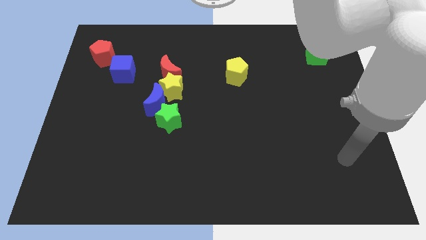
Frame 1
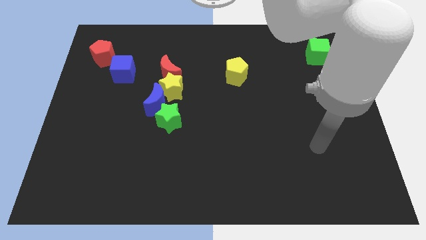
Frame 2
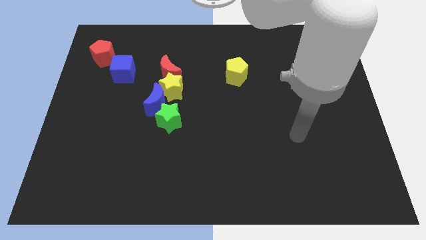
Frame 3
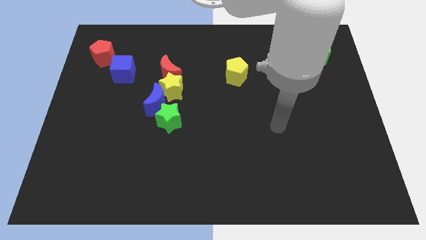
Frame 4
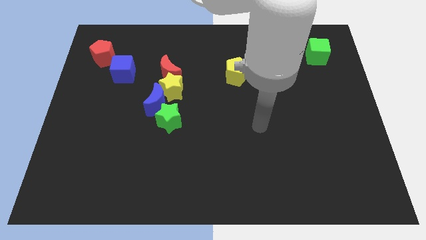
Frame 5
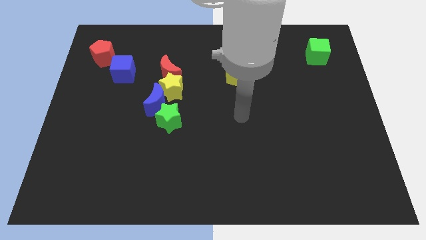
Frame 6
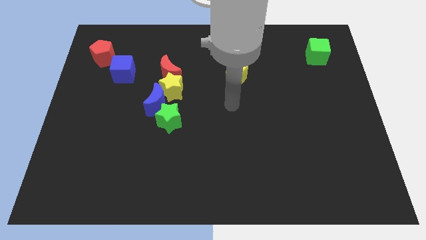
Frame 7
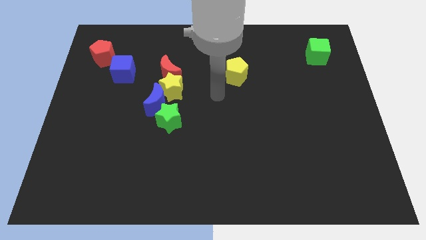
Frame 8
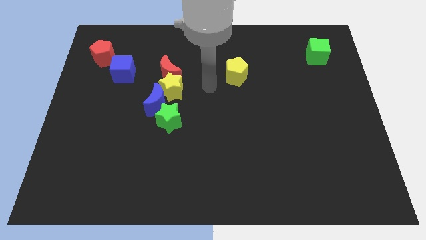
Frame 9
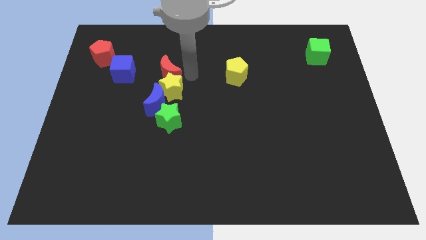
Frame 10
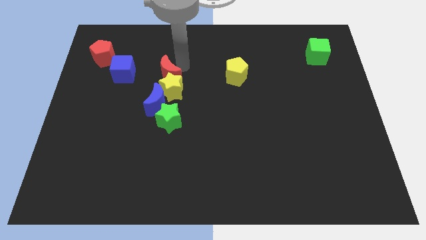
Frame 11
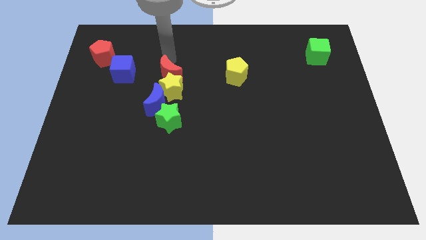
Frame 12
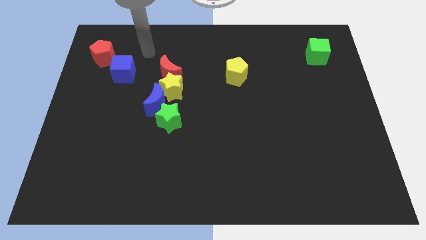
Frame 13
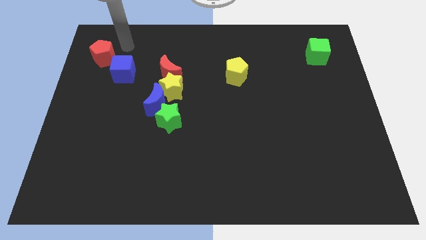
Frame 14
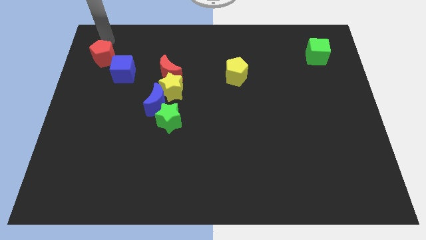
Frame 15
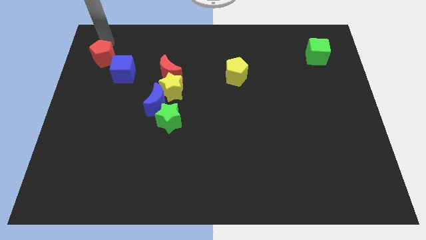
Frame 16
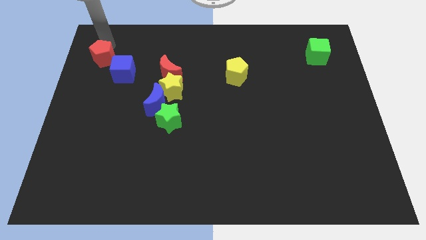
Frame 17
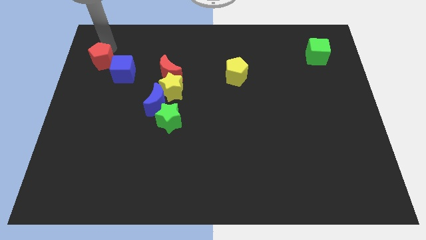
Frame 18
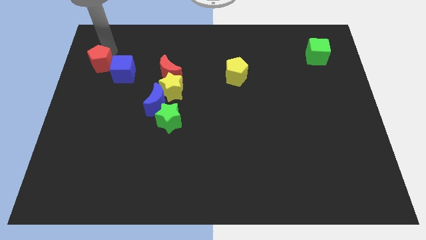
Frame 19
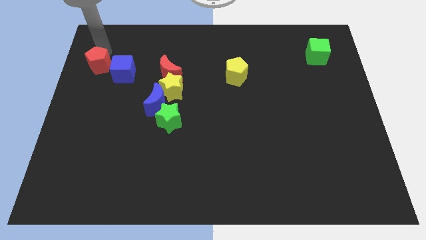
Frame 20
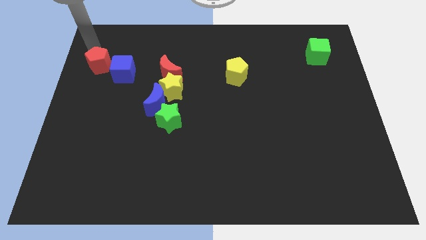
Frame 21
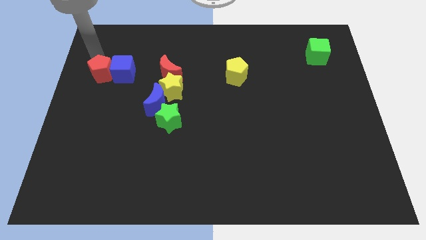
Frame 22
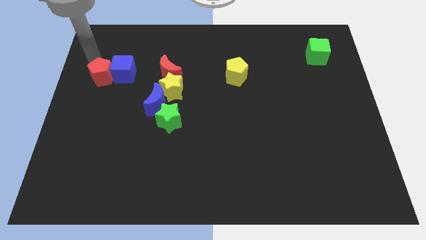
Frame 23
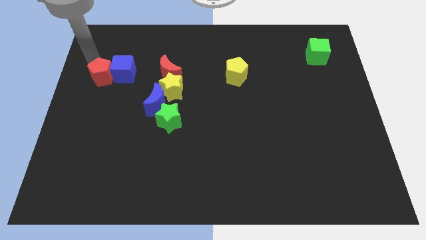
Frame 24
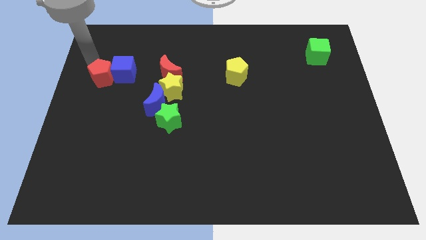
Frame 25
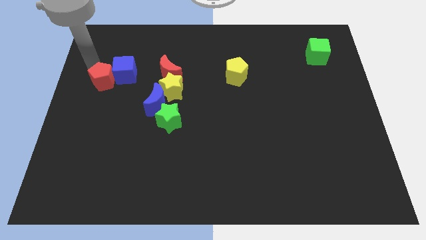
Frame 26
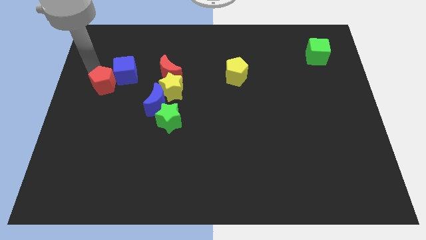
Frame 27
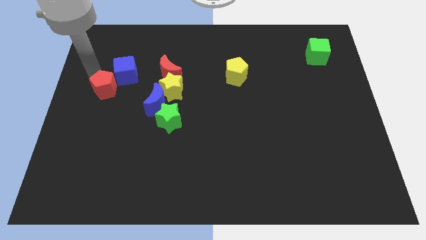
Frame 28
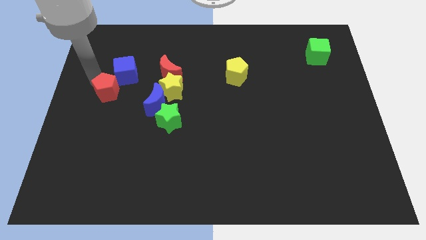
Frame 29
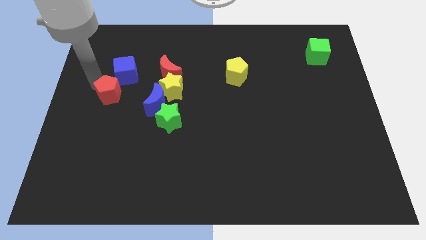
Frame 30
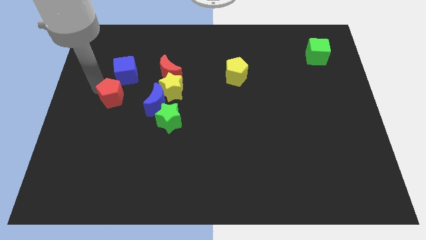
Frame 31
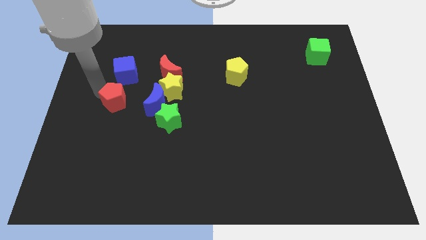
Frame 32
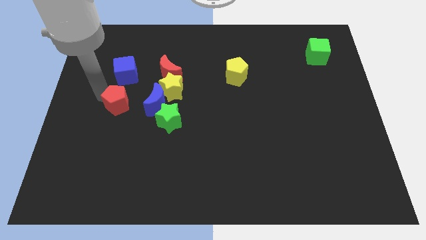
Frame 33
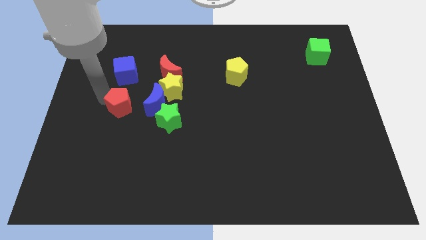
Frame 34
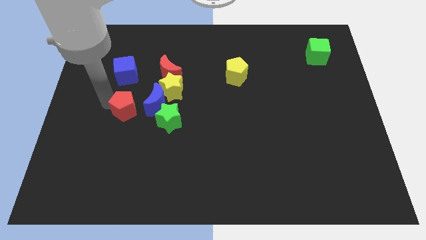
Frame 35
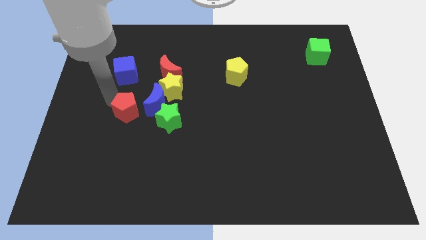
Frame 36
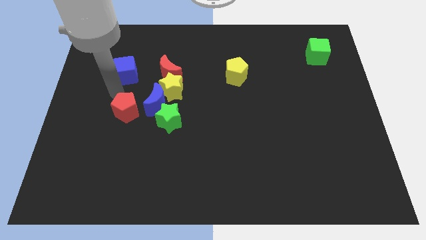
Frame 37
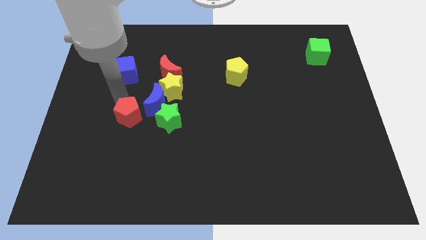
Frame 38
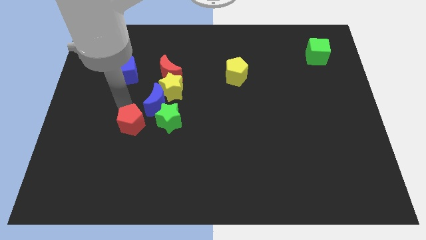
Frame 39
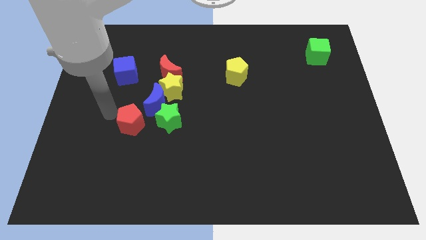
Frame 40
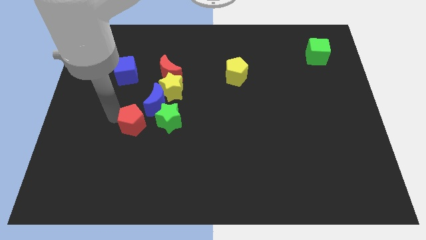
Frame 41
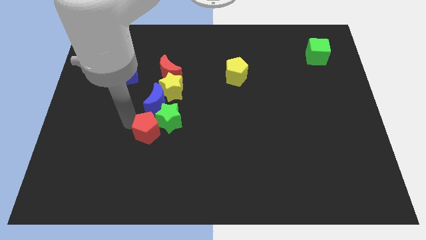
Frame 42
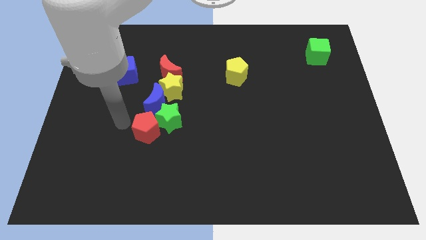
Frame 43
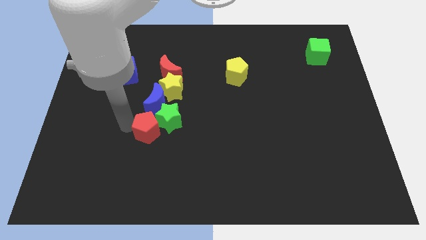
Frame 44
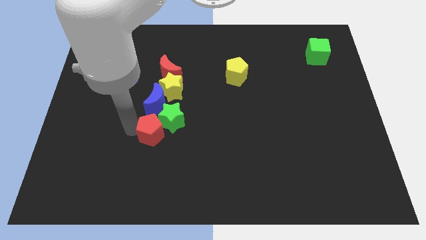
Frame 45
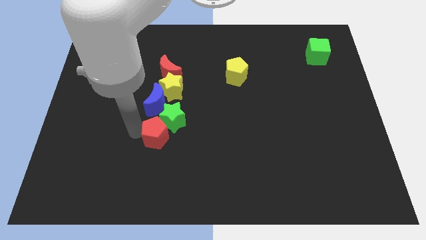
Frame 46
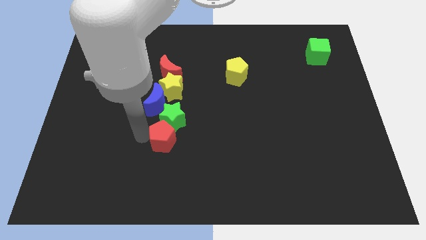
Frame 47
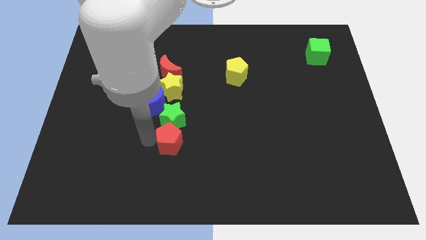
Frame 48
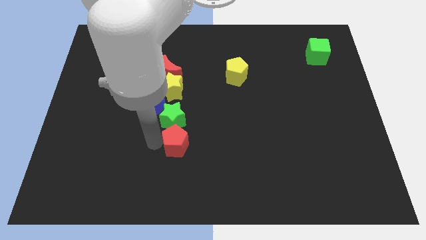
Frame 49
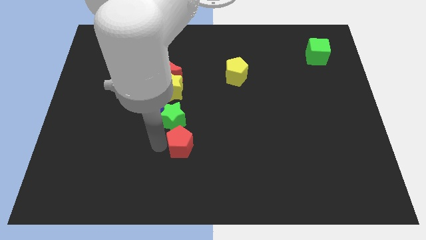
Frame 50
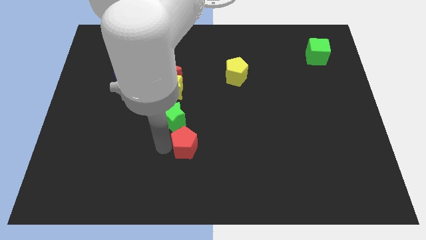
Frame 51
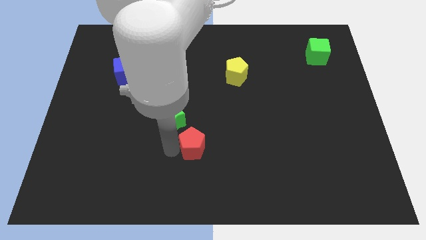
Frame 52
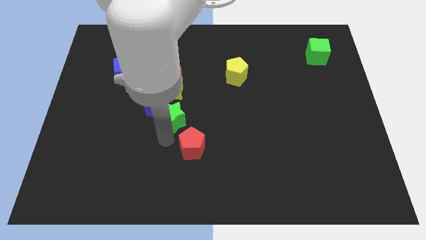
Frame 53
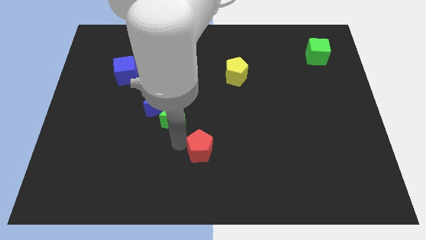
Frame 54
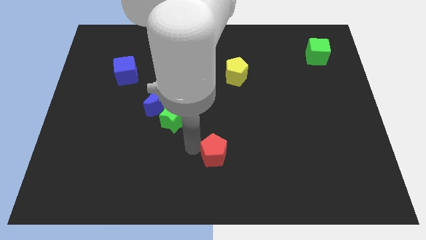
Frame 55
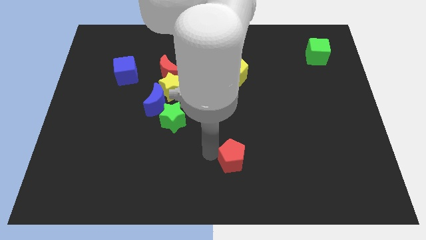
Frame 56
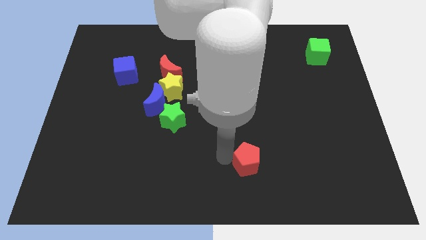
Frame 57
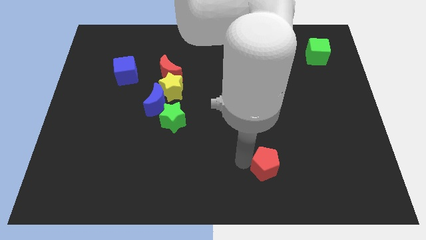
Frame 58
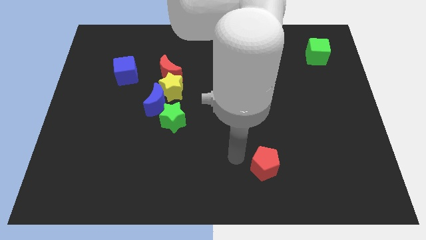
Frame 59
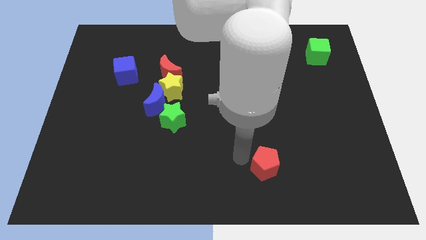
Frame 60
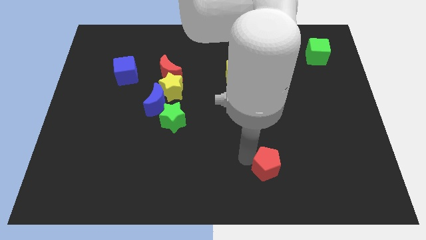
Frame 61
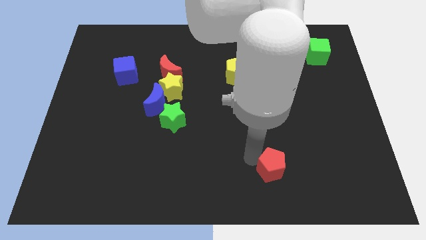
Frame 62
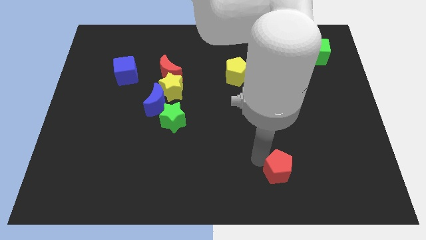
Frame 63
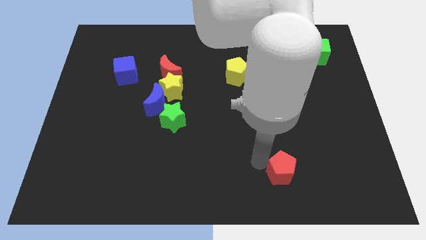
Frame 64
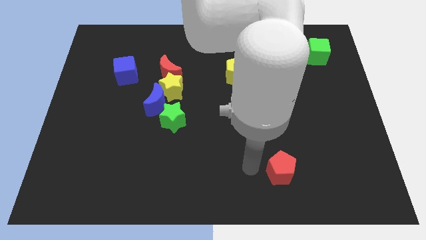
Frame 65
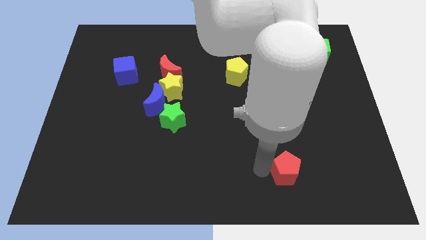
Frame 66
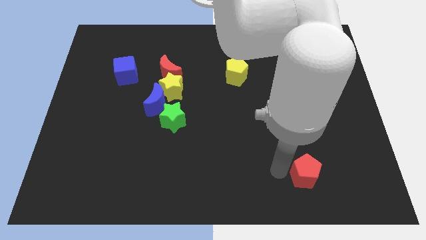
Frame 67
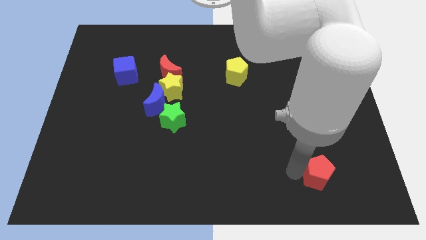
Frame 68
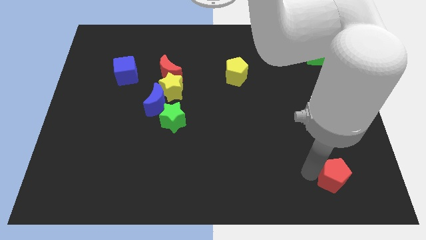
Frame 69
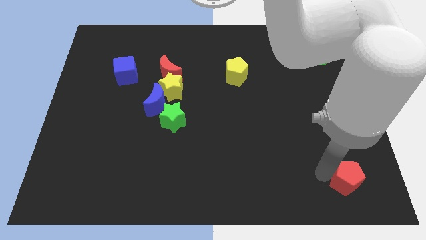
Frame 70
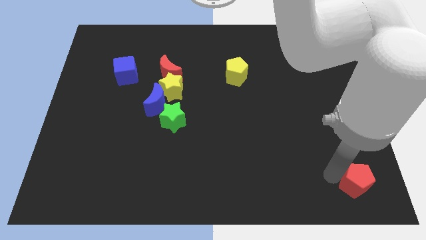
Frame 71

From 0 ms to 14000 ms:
slide the red pentagon to the bottom right of the board
